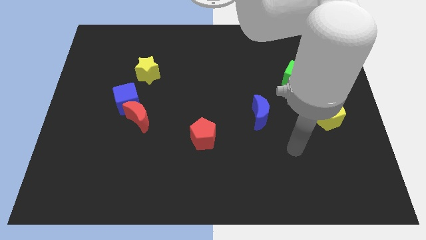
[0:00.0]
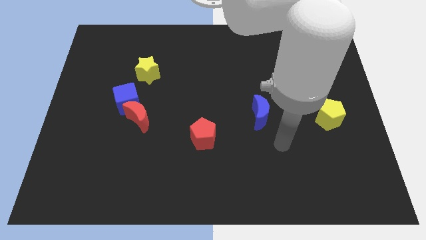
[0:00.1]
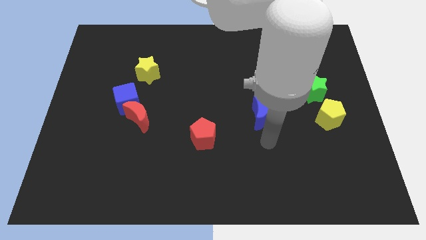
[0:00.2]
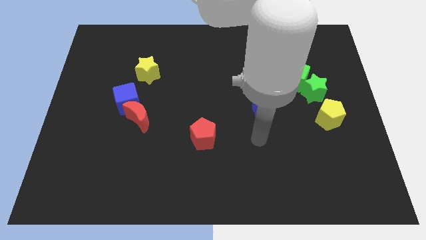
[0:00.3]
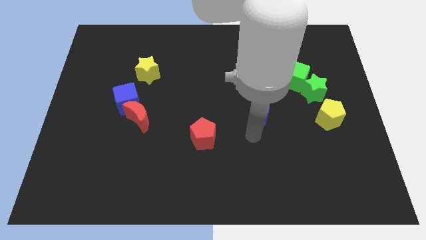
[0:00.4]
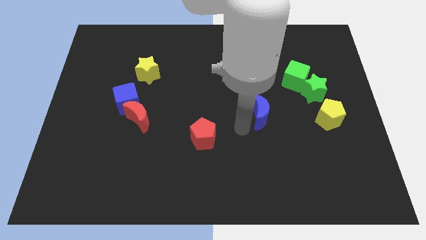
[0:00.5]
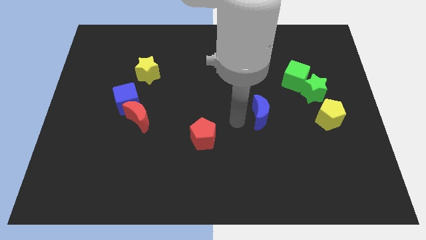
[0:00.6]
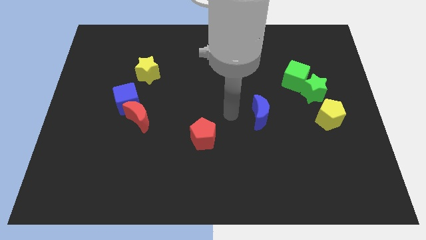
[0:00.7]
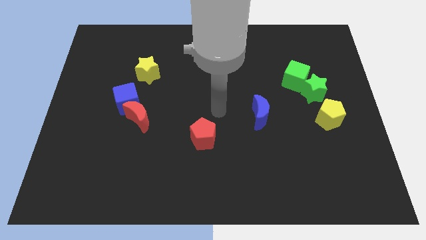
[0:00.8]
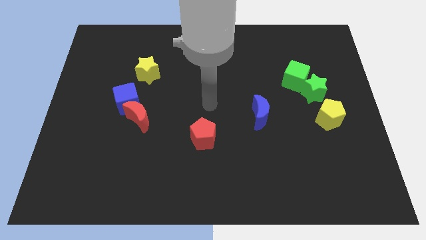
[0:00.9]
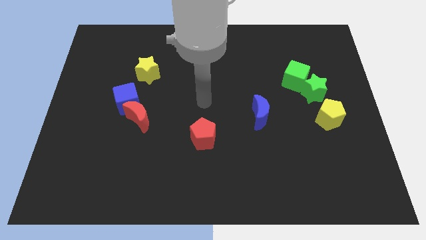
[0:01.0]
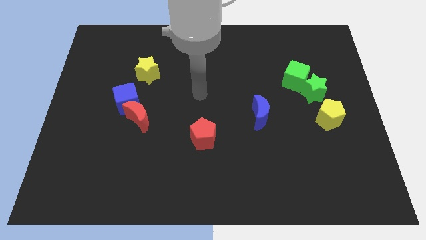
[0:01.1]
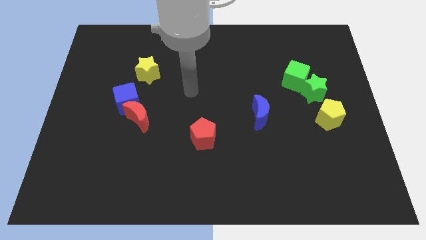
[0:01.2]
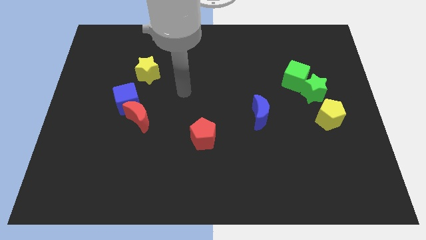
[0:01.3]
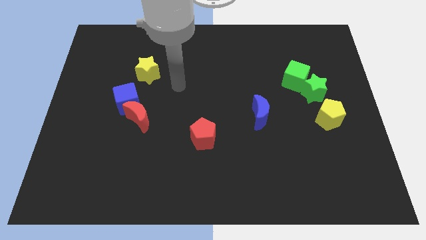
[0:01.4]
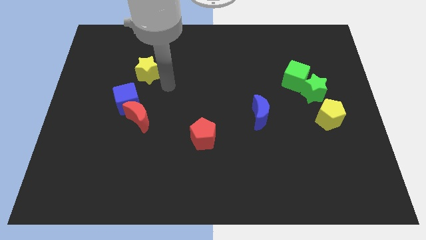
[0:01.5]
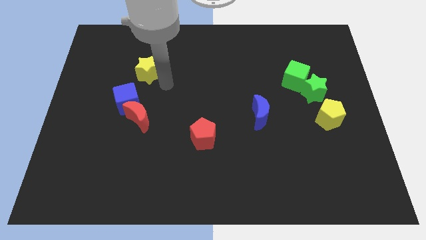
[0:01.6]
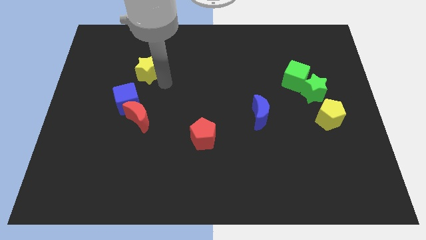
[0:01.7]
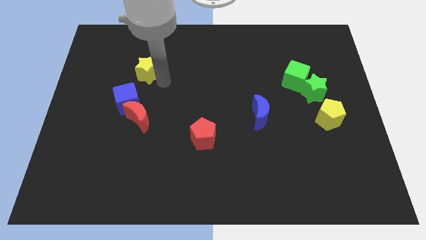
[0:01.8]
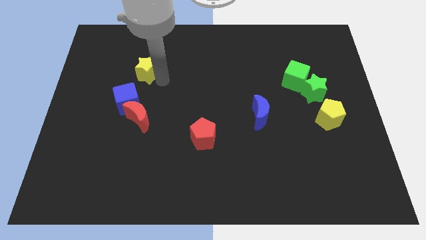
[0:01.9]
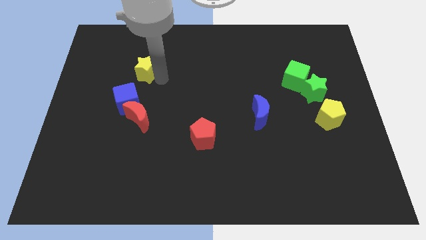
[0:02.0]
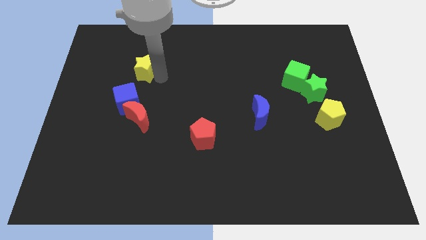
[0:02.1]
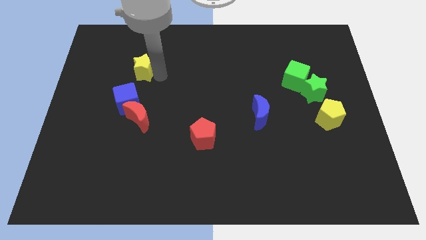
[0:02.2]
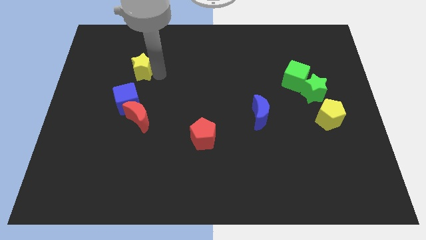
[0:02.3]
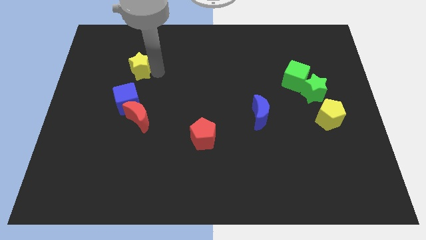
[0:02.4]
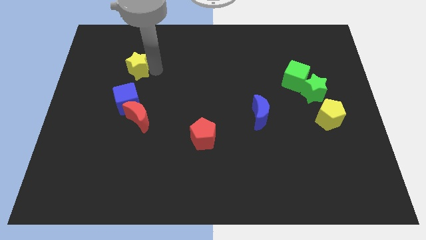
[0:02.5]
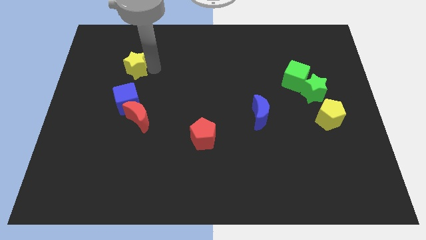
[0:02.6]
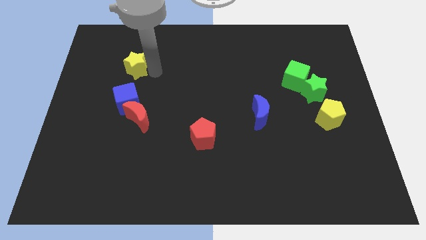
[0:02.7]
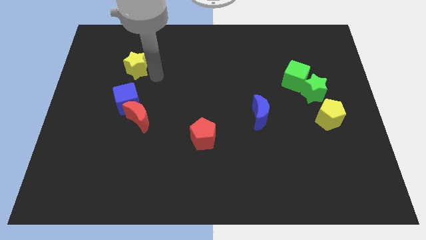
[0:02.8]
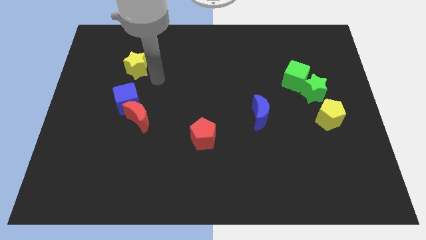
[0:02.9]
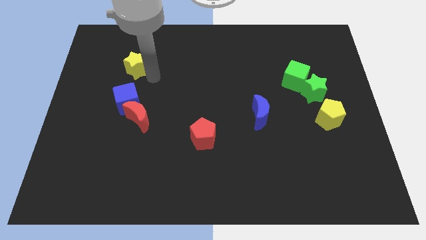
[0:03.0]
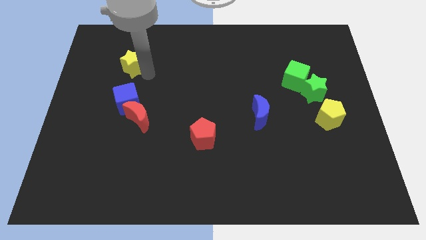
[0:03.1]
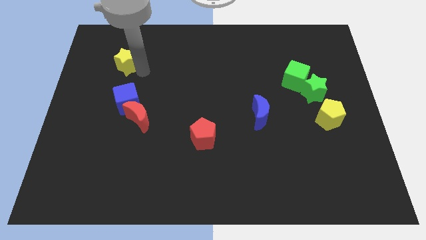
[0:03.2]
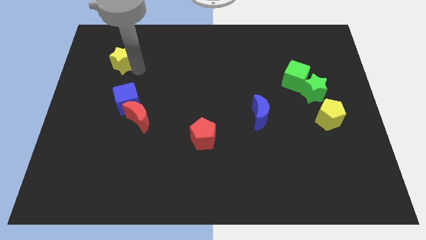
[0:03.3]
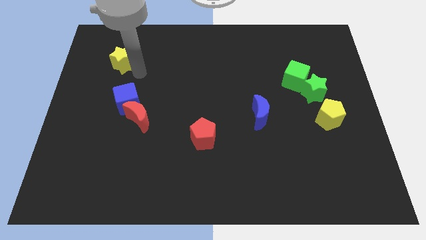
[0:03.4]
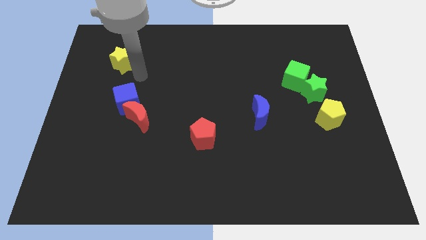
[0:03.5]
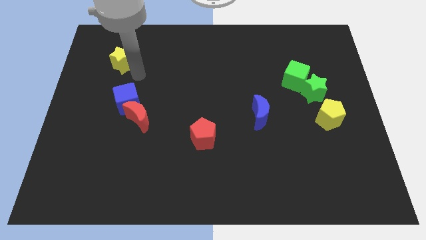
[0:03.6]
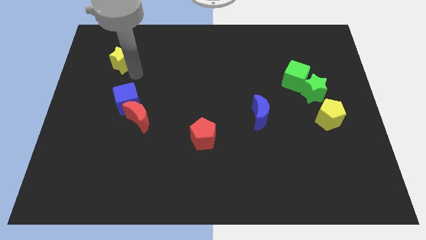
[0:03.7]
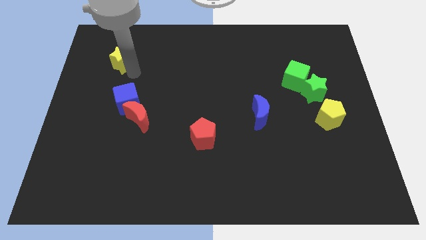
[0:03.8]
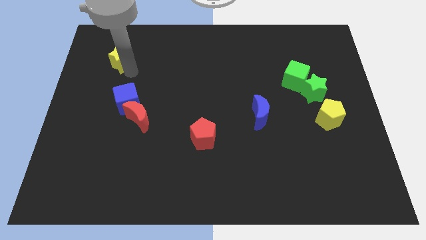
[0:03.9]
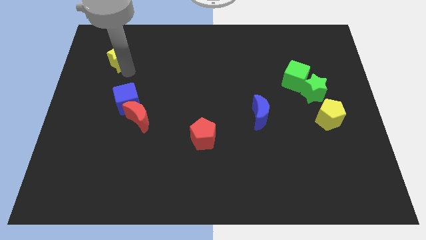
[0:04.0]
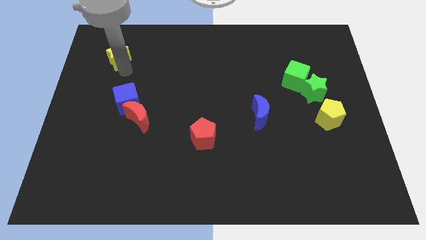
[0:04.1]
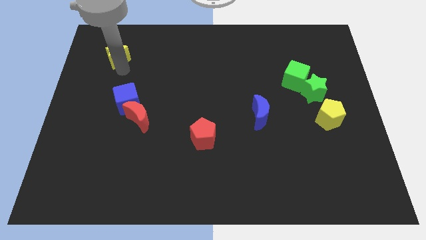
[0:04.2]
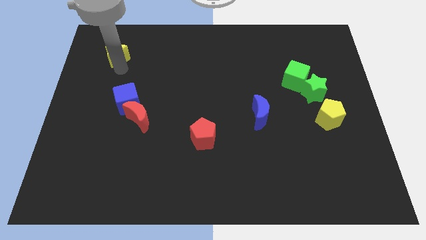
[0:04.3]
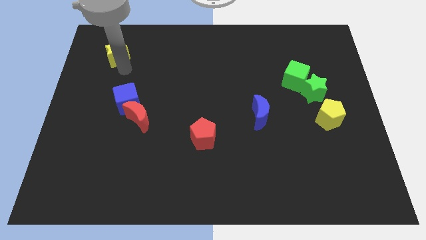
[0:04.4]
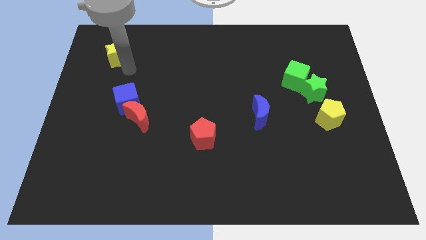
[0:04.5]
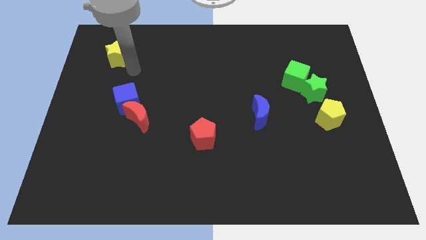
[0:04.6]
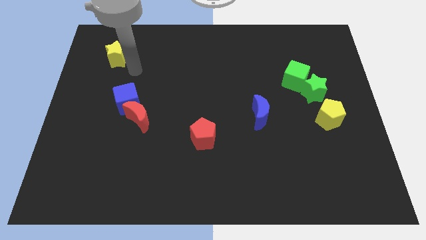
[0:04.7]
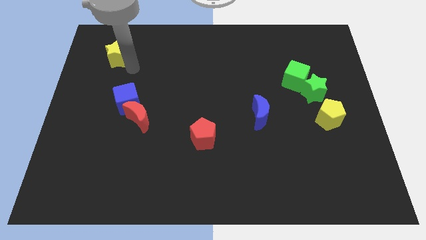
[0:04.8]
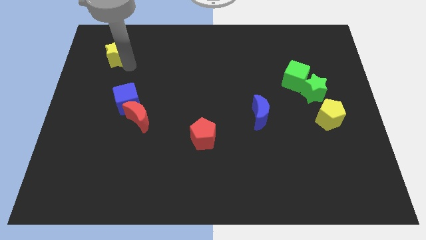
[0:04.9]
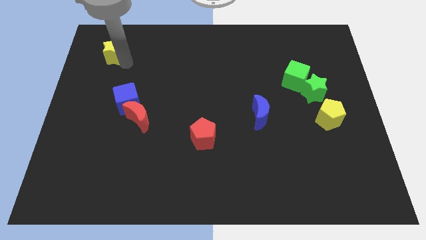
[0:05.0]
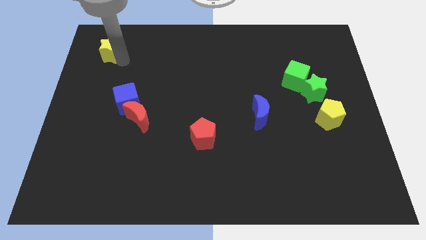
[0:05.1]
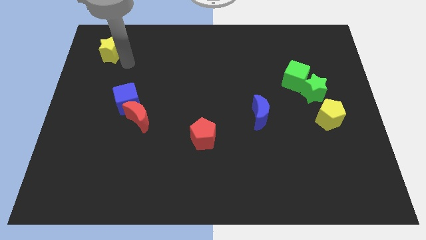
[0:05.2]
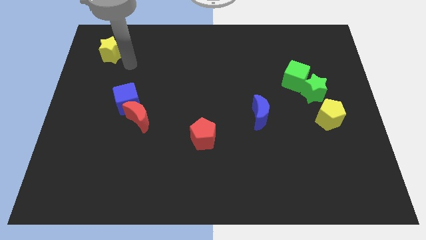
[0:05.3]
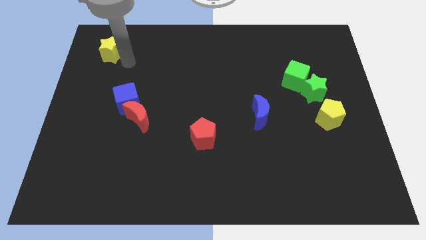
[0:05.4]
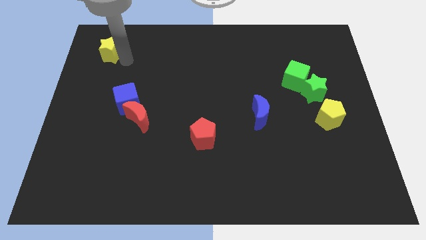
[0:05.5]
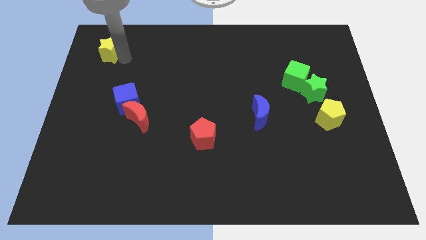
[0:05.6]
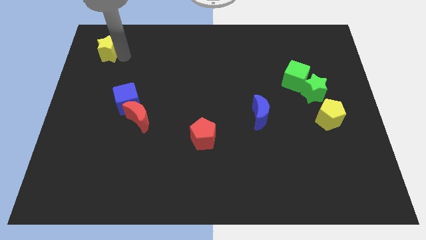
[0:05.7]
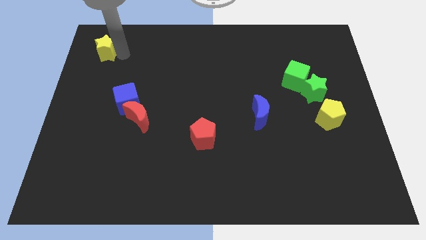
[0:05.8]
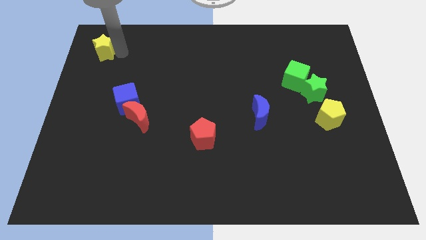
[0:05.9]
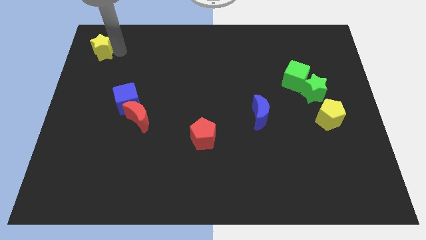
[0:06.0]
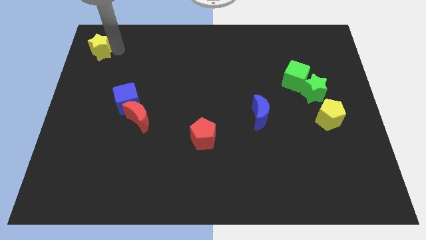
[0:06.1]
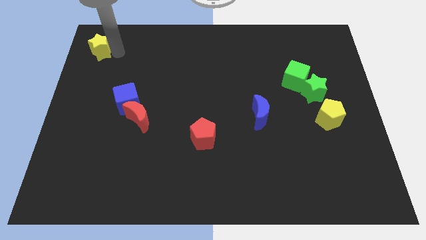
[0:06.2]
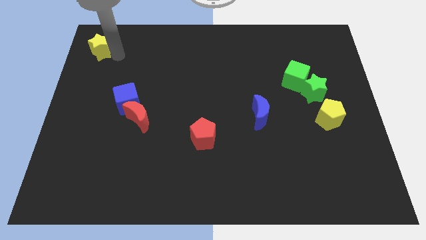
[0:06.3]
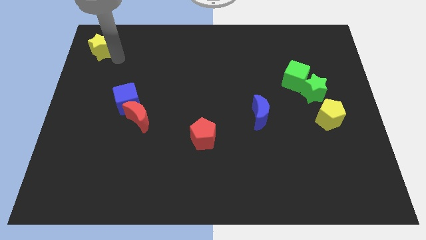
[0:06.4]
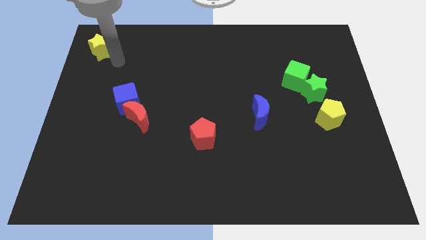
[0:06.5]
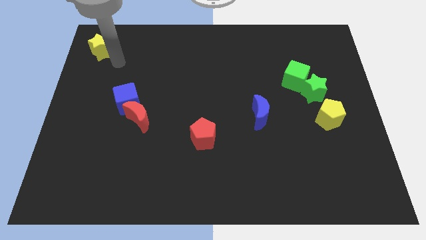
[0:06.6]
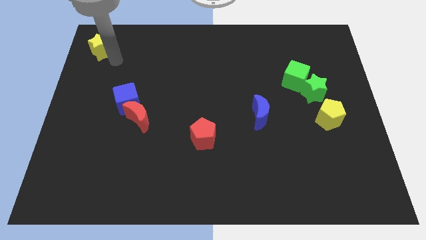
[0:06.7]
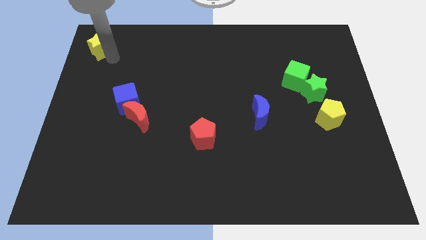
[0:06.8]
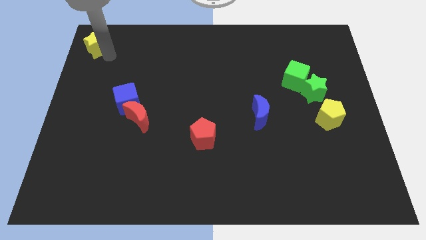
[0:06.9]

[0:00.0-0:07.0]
put the yellow star to the top left

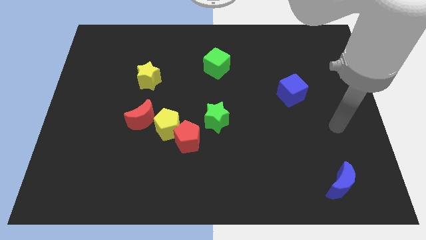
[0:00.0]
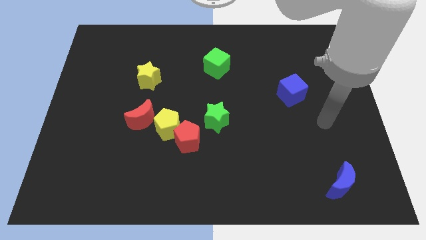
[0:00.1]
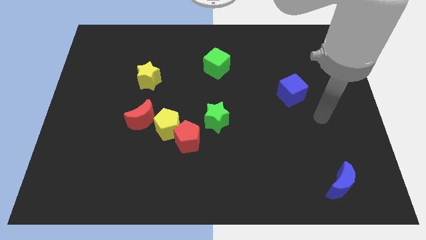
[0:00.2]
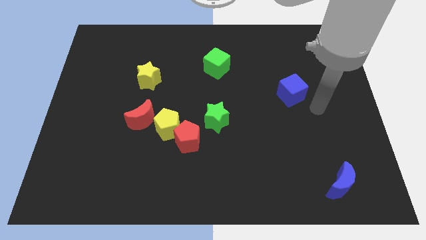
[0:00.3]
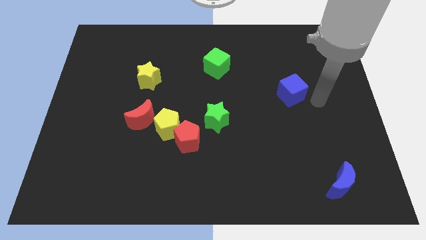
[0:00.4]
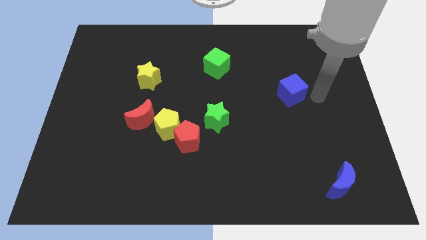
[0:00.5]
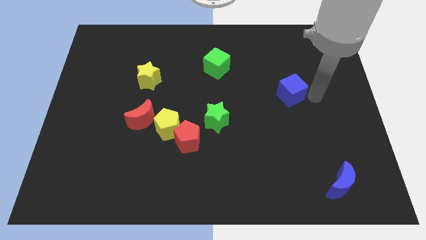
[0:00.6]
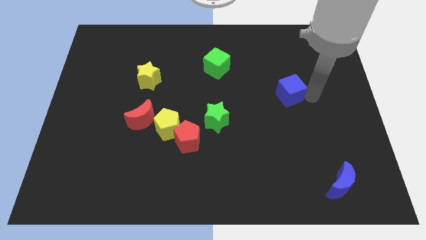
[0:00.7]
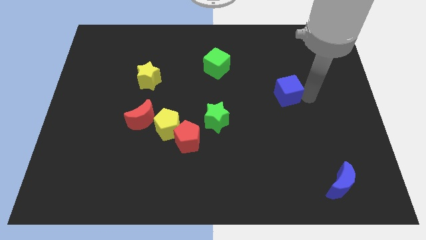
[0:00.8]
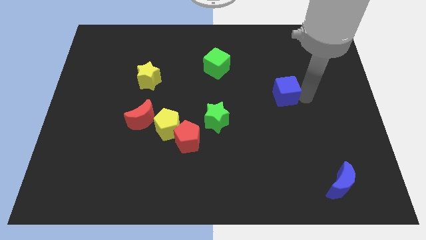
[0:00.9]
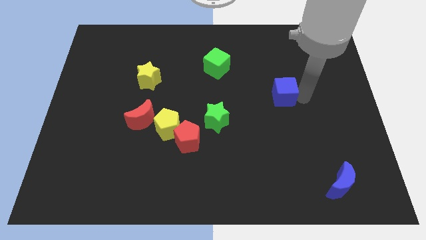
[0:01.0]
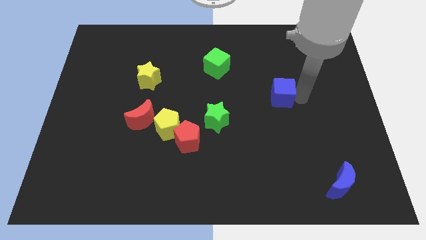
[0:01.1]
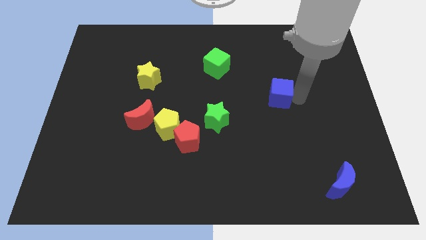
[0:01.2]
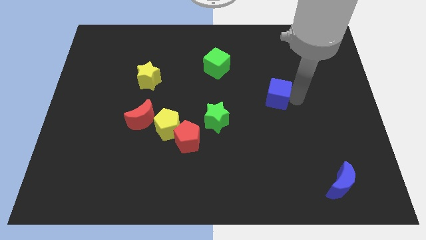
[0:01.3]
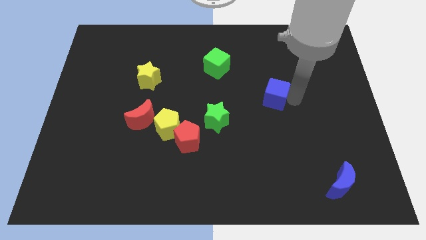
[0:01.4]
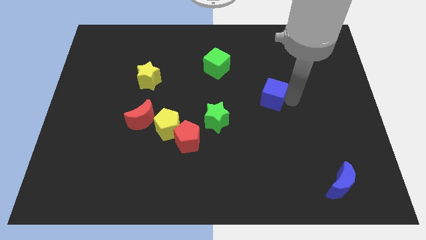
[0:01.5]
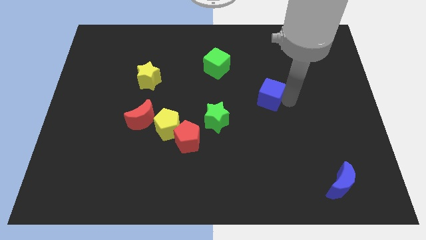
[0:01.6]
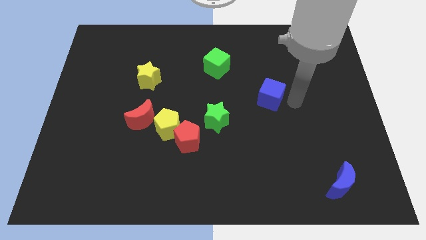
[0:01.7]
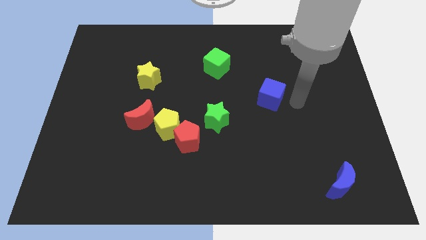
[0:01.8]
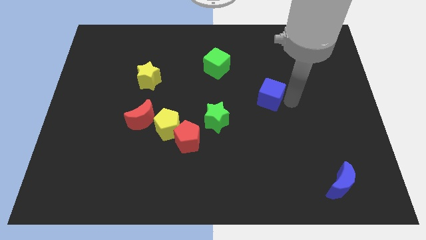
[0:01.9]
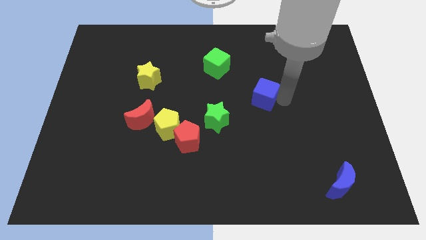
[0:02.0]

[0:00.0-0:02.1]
move the blue cube to the center
